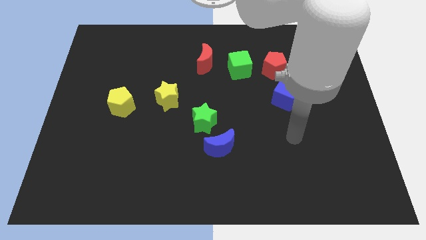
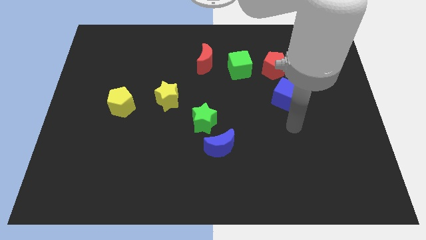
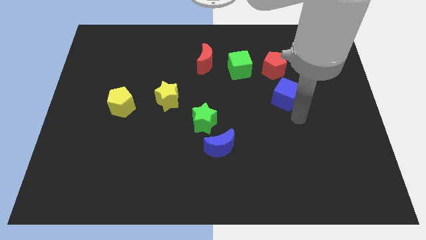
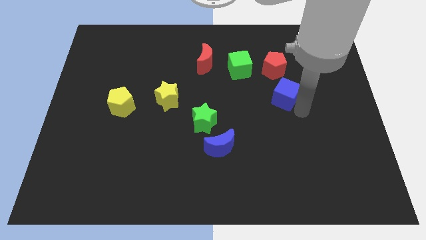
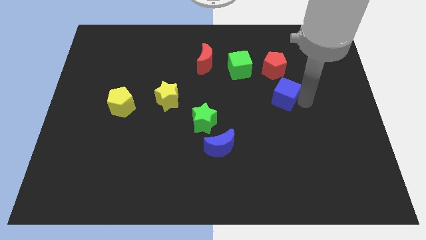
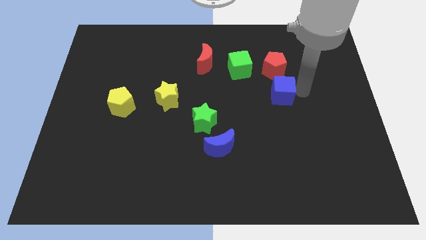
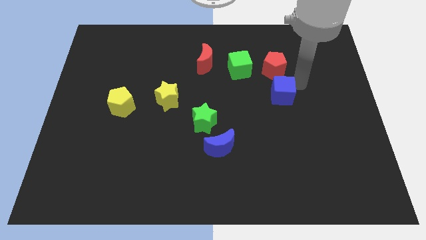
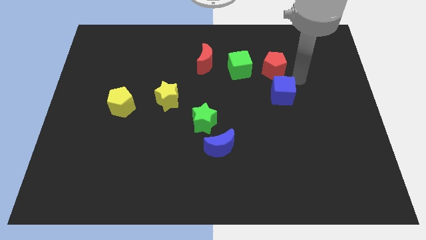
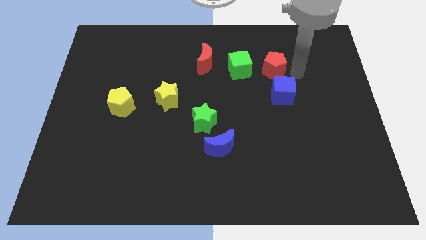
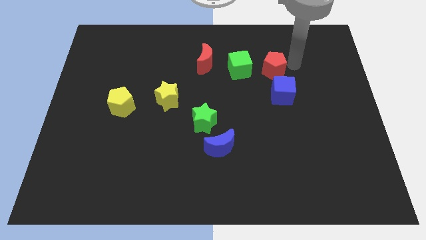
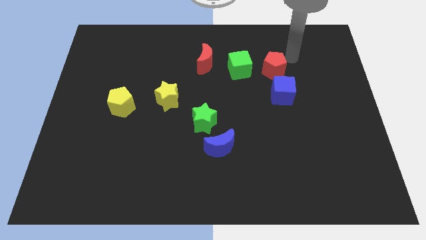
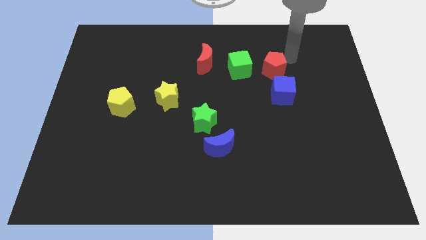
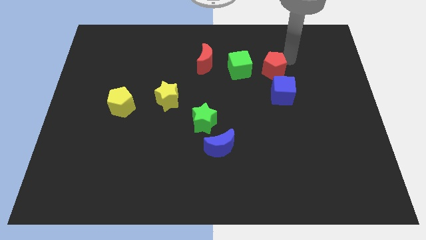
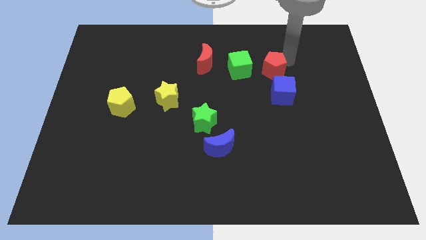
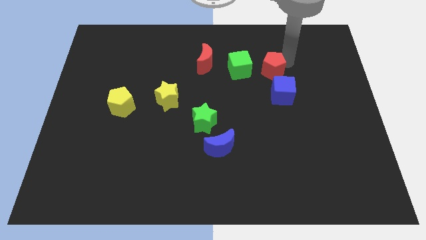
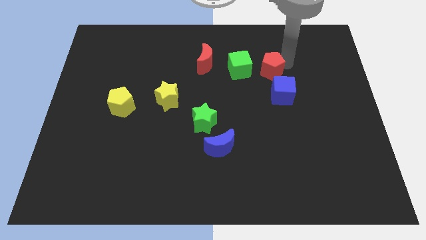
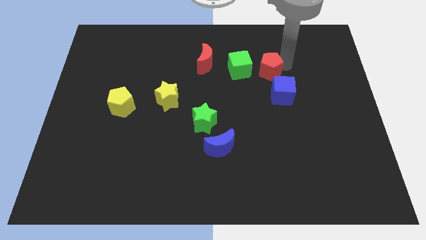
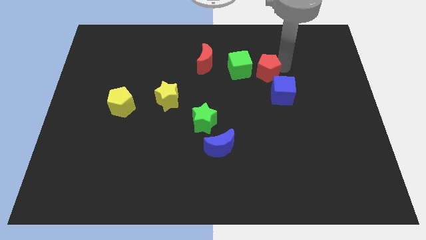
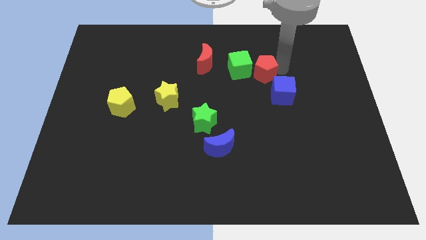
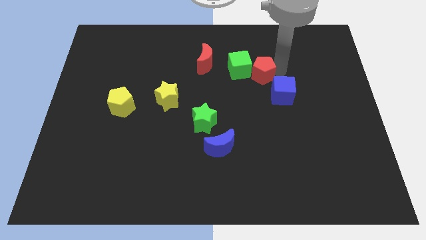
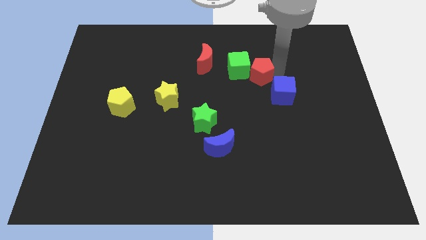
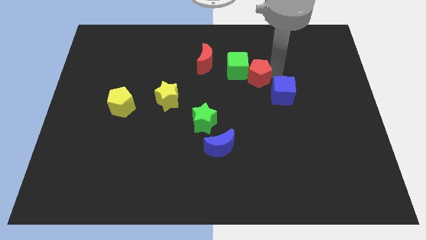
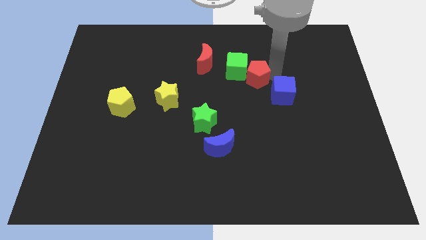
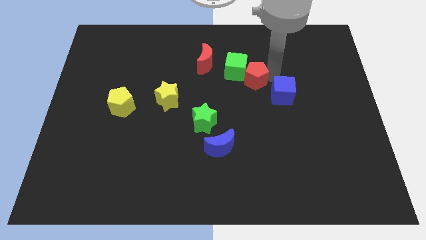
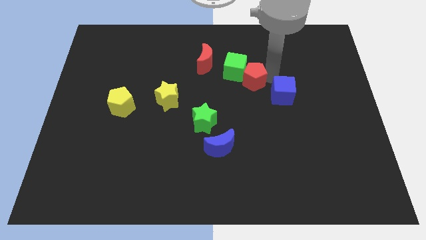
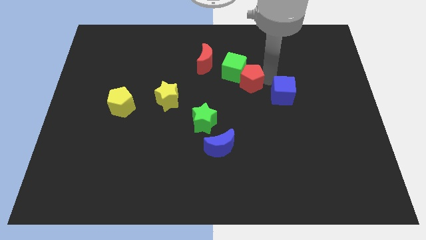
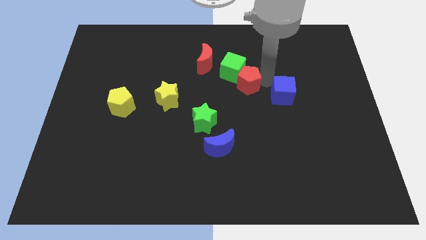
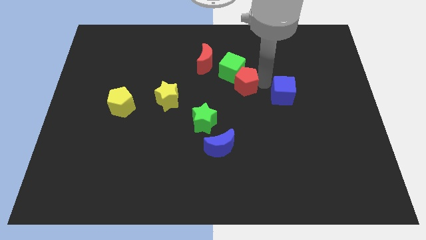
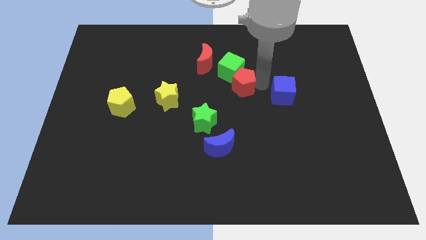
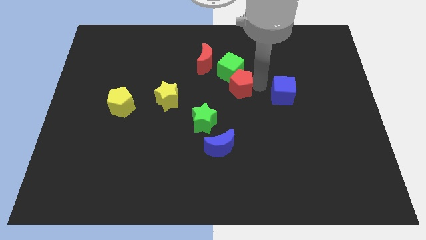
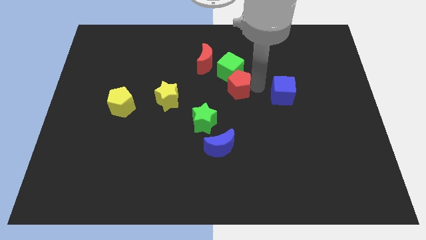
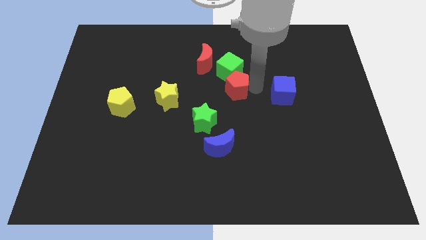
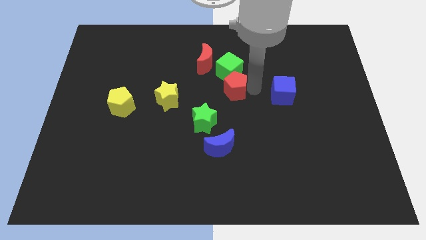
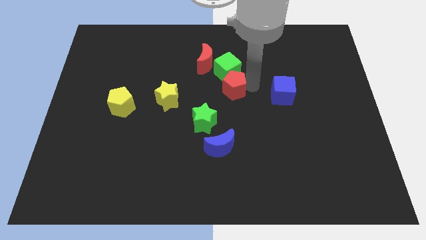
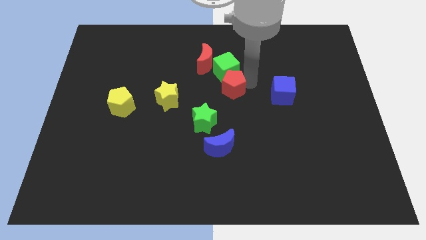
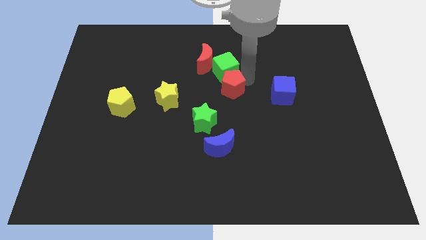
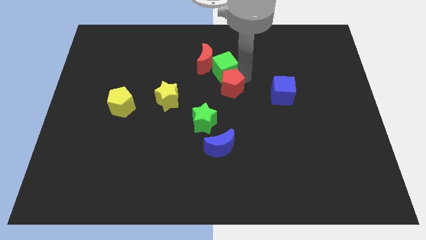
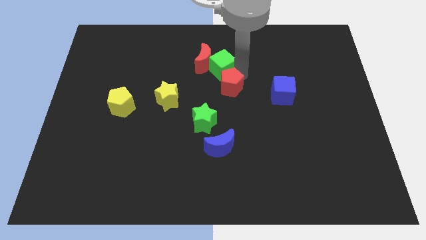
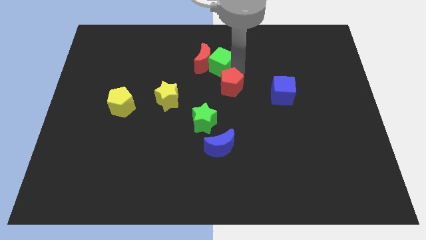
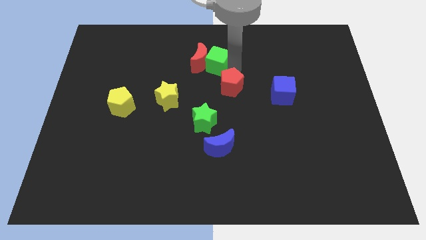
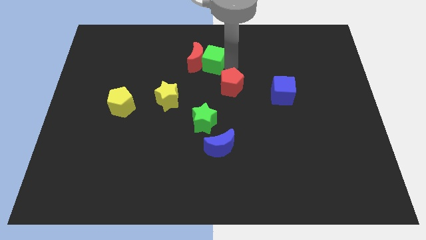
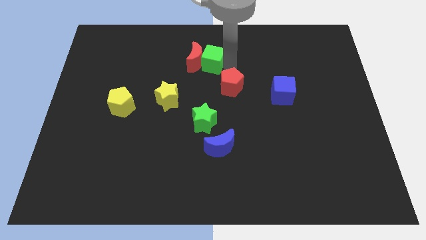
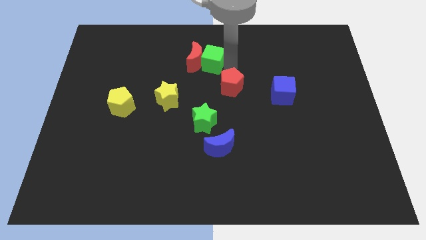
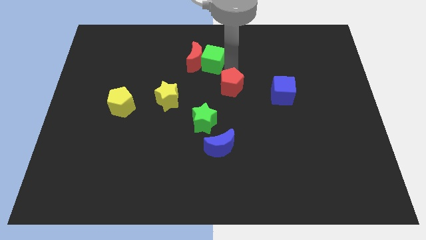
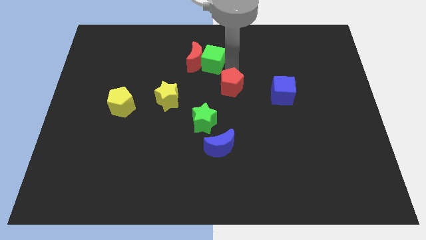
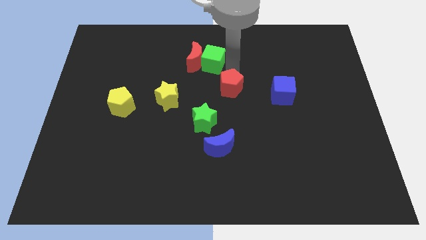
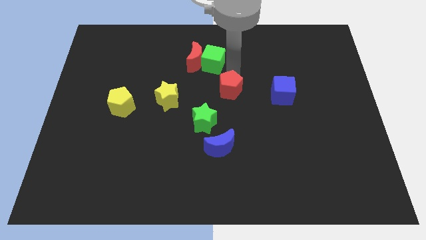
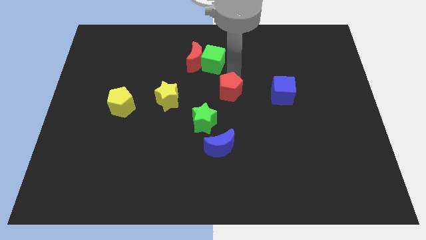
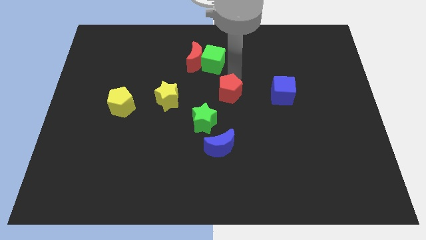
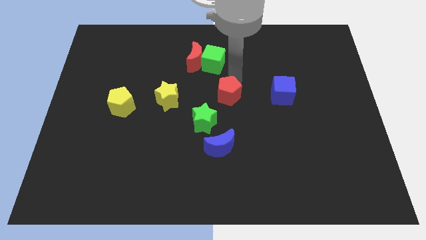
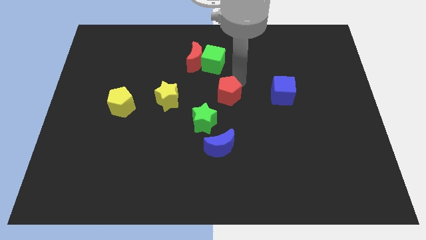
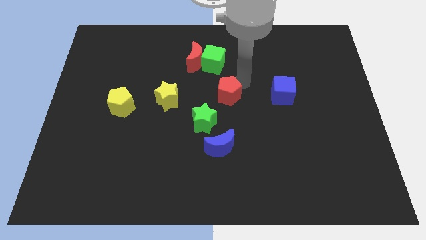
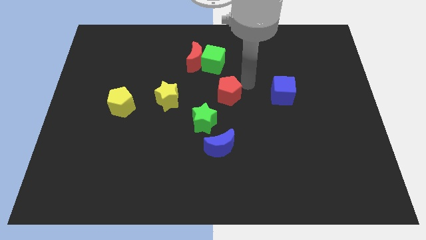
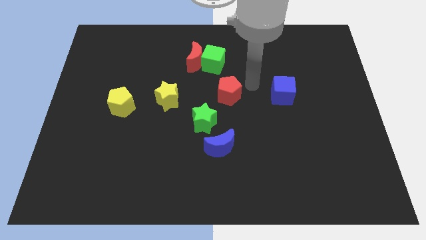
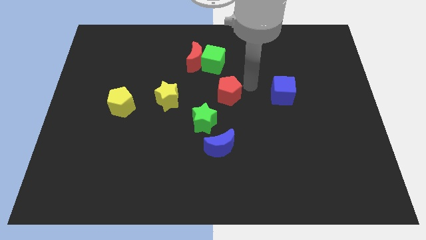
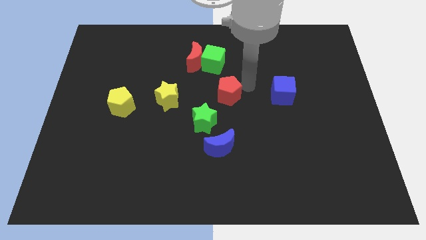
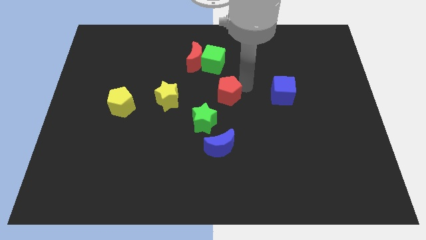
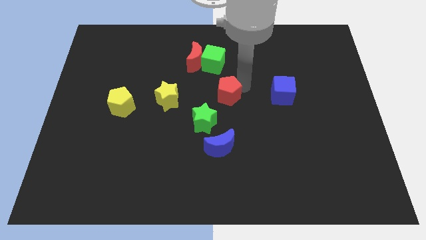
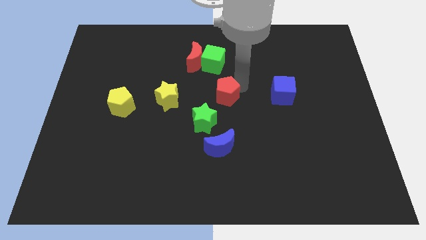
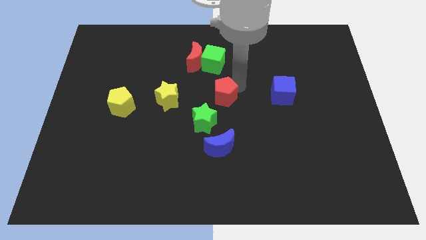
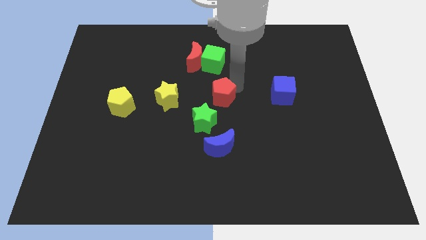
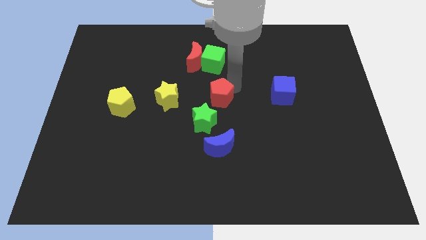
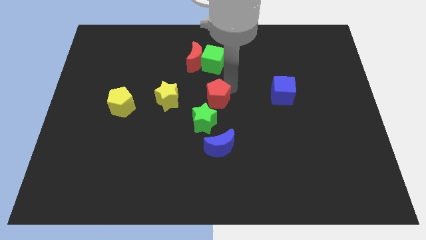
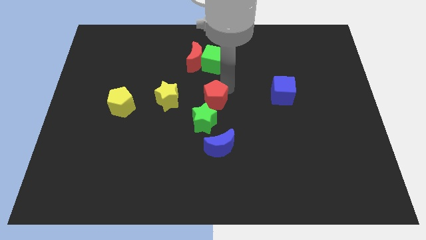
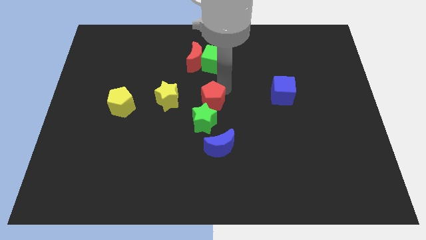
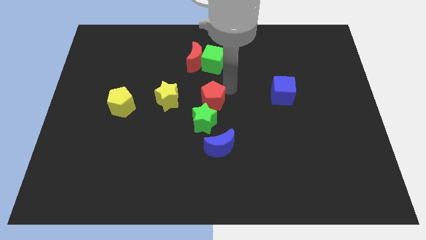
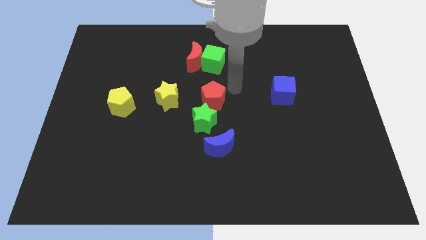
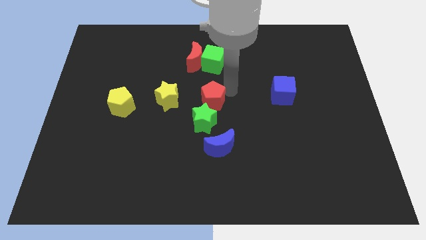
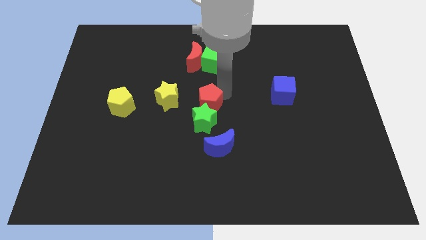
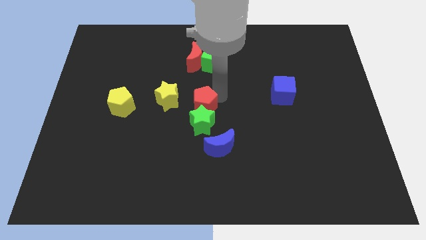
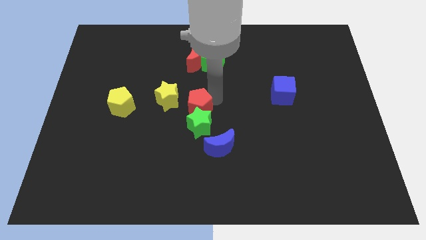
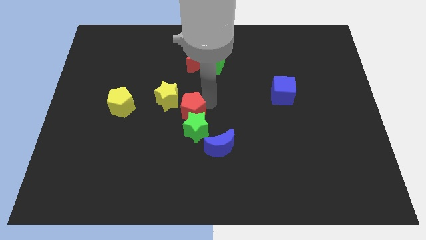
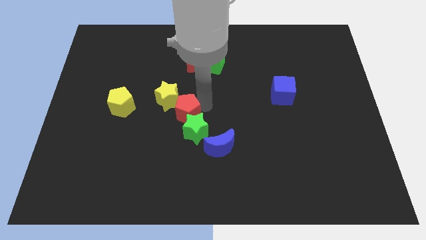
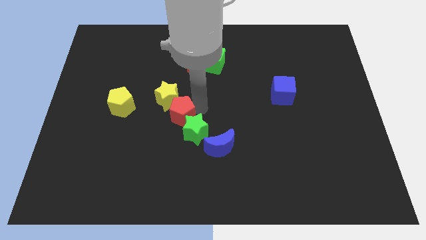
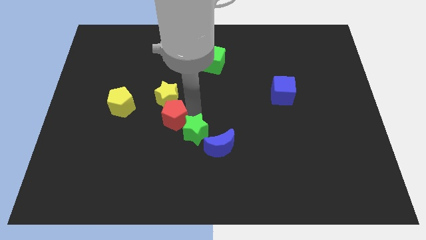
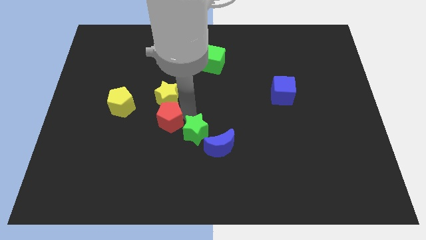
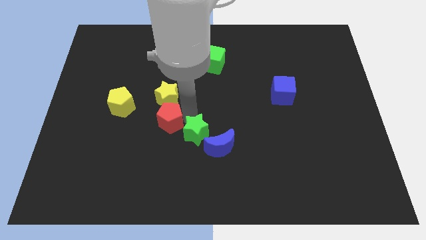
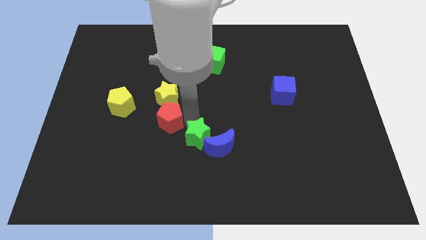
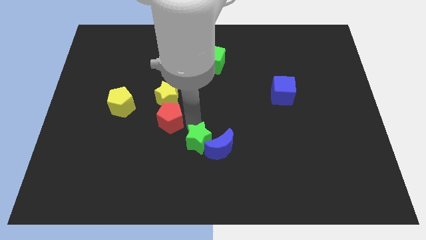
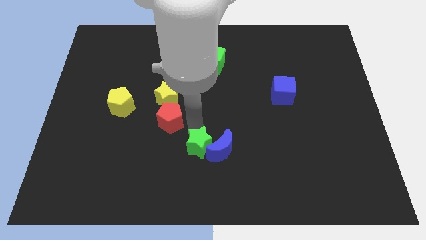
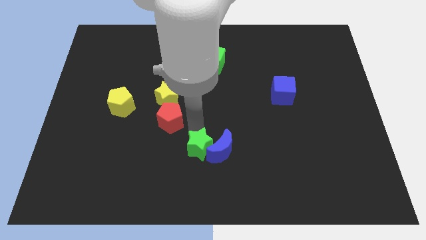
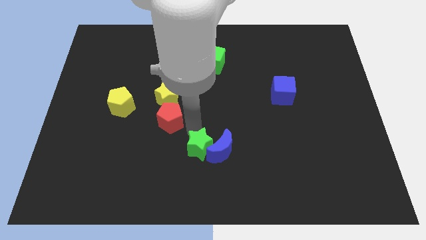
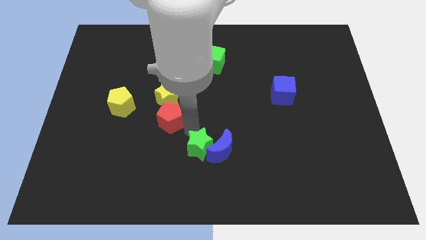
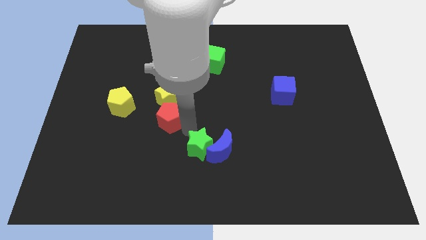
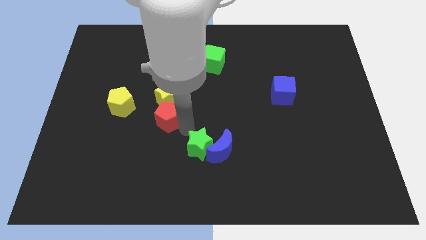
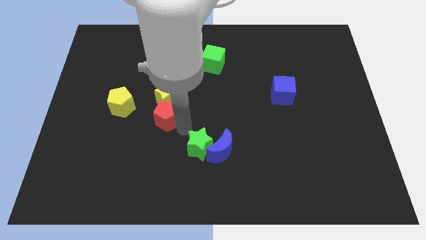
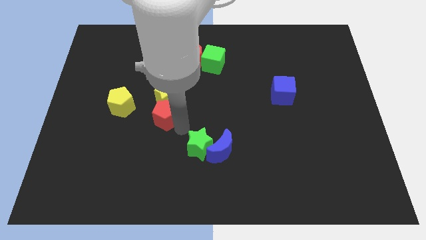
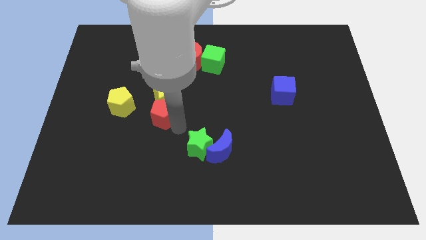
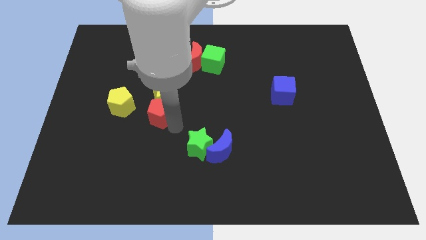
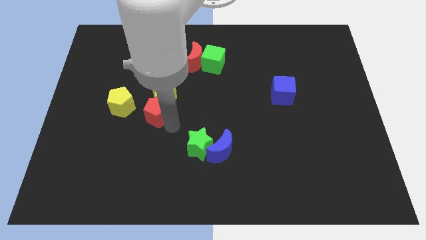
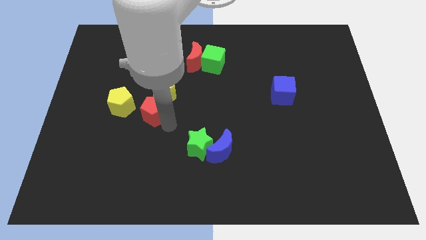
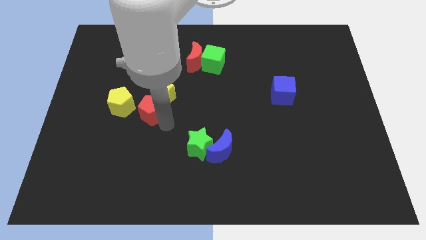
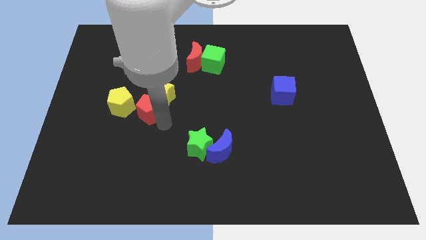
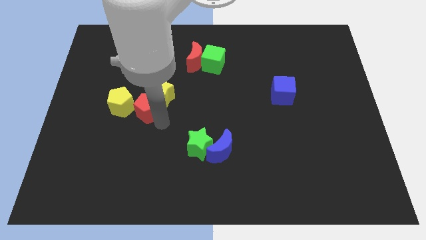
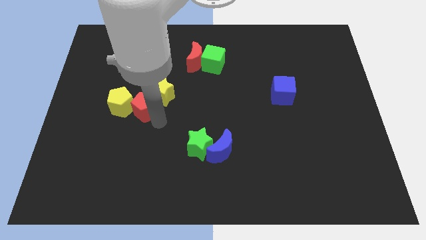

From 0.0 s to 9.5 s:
push the red pentagon to the yellow pentagon
